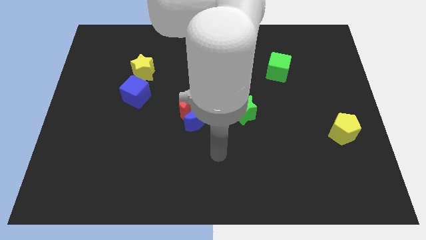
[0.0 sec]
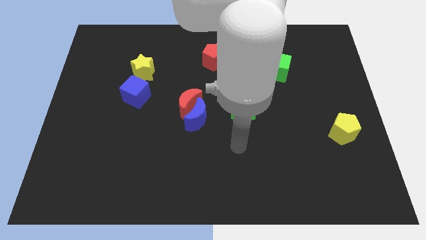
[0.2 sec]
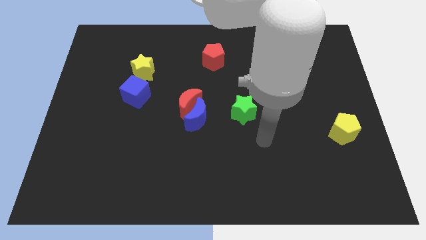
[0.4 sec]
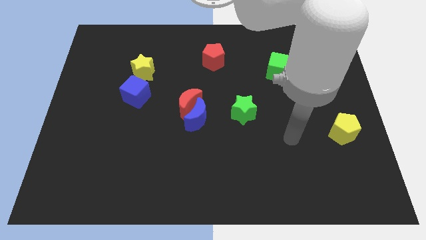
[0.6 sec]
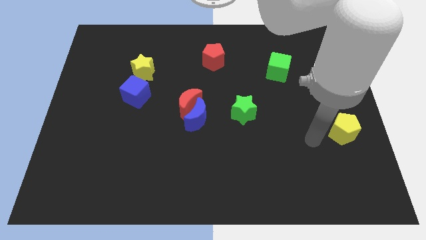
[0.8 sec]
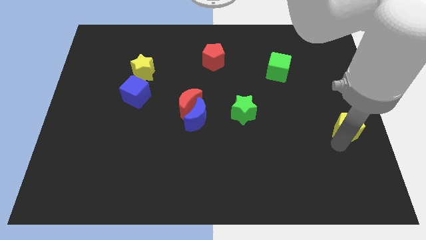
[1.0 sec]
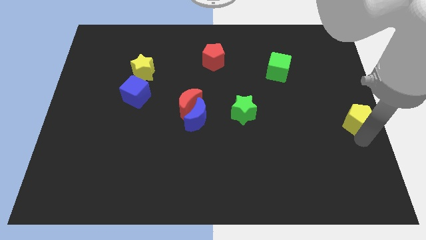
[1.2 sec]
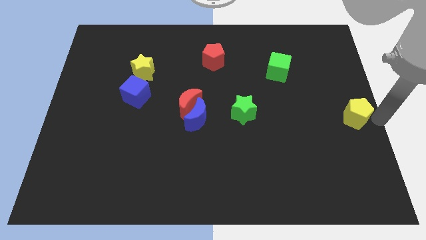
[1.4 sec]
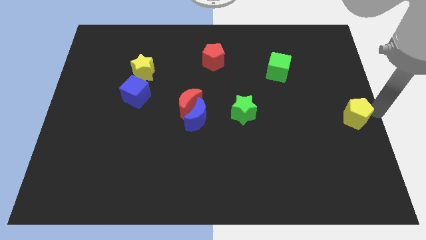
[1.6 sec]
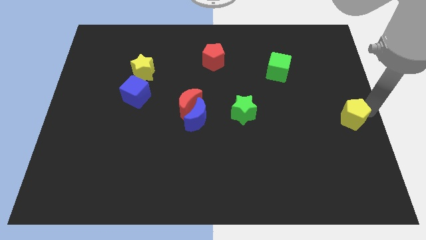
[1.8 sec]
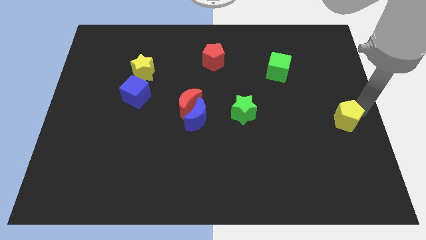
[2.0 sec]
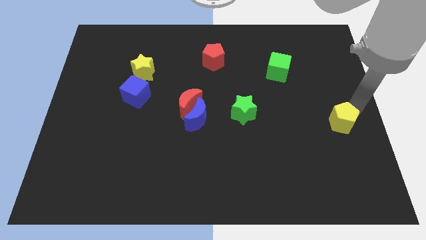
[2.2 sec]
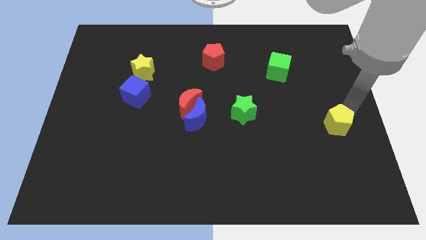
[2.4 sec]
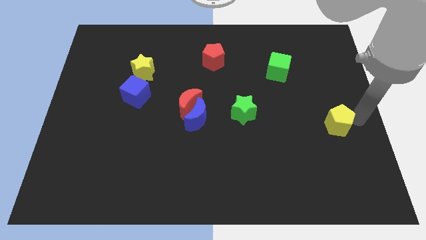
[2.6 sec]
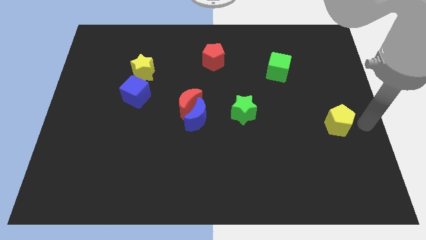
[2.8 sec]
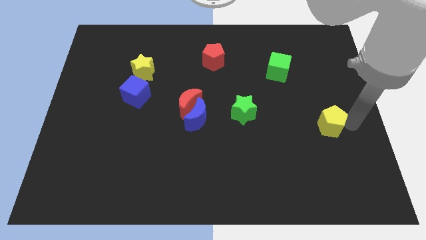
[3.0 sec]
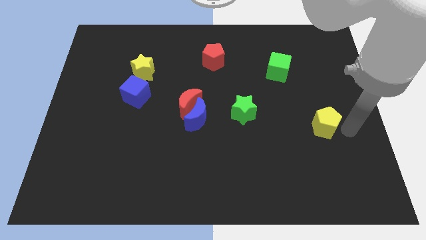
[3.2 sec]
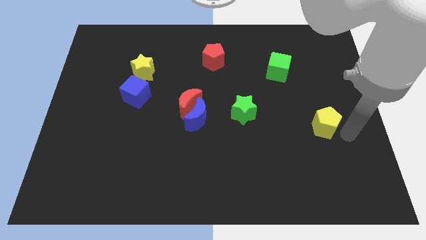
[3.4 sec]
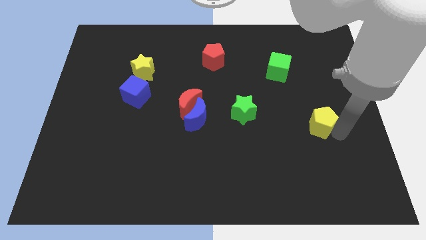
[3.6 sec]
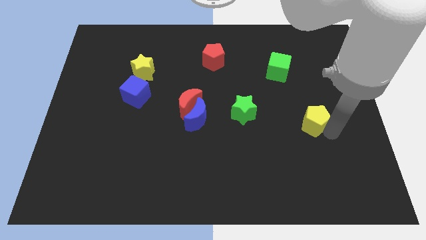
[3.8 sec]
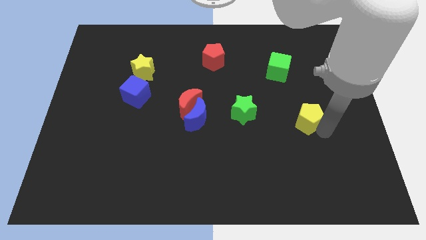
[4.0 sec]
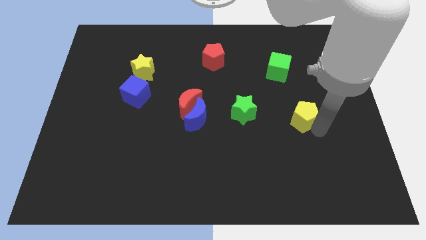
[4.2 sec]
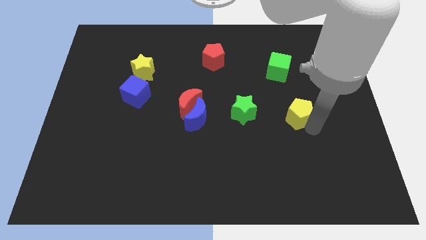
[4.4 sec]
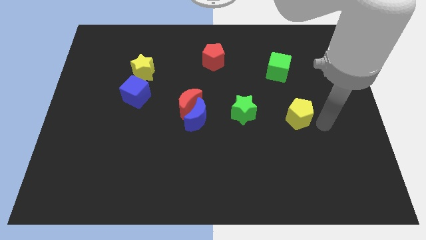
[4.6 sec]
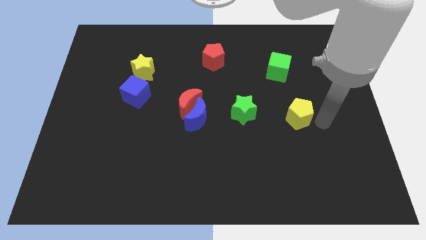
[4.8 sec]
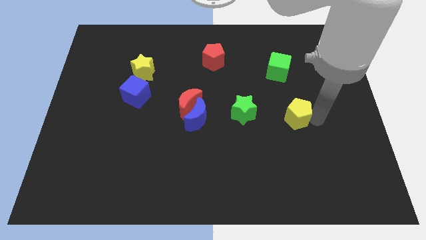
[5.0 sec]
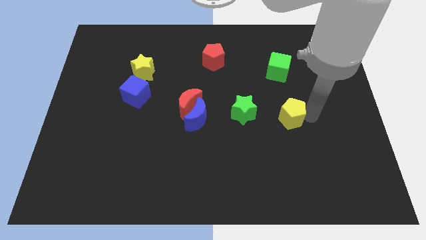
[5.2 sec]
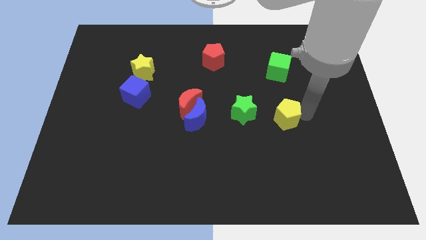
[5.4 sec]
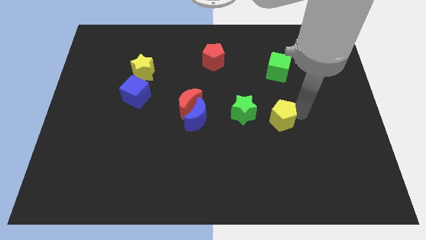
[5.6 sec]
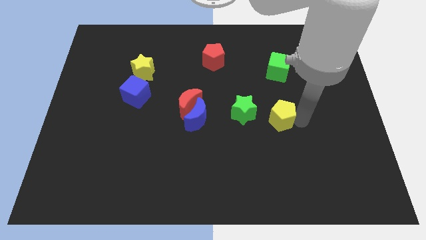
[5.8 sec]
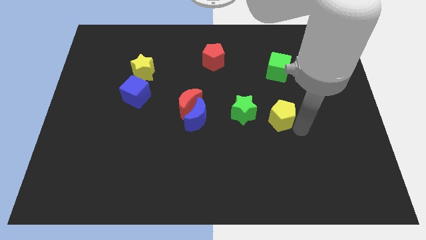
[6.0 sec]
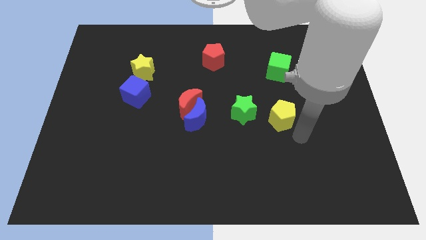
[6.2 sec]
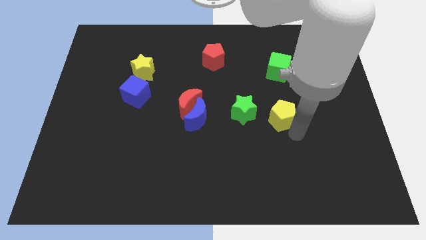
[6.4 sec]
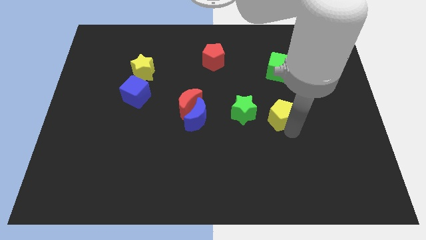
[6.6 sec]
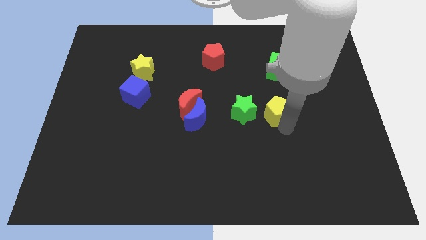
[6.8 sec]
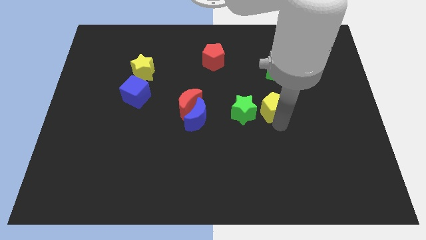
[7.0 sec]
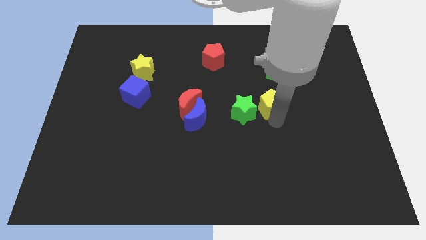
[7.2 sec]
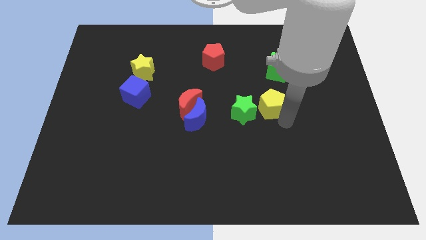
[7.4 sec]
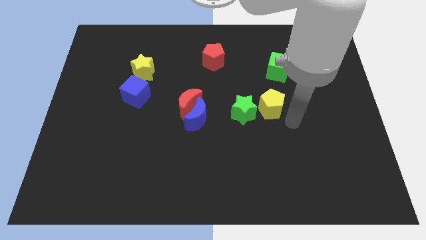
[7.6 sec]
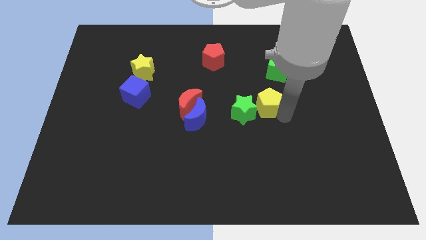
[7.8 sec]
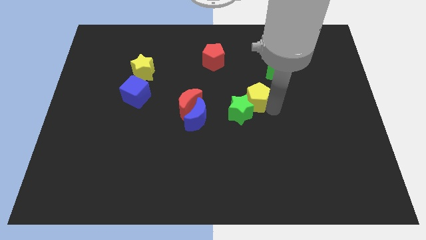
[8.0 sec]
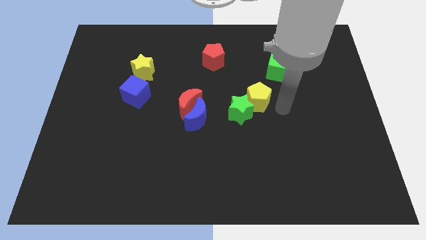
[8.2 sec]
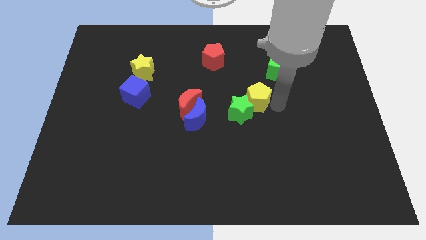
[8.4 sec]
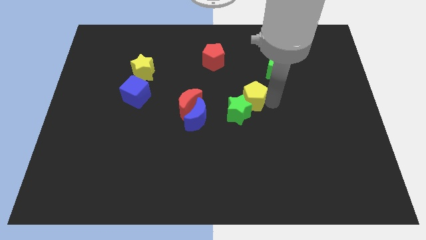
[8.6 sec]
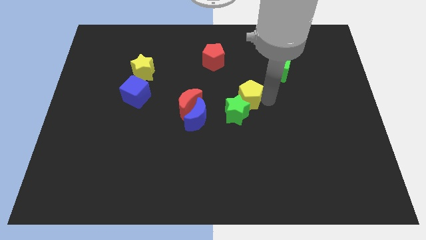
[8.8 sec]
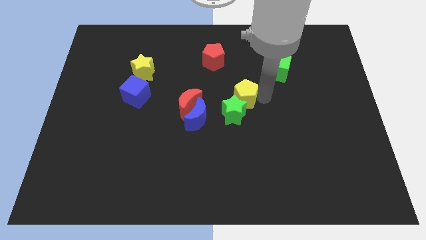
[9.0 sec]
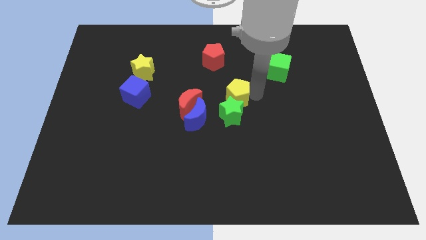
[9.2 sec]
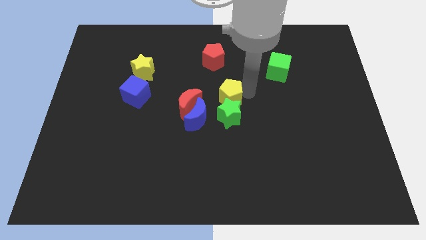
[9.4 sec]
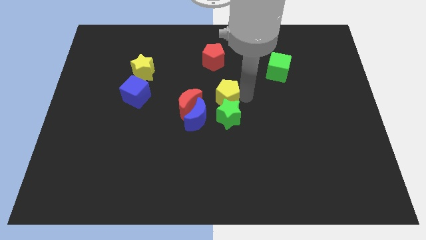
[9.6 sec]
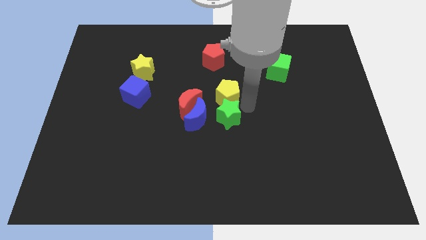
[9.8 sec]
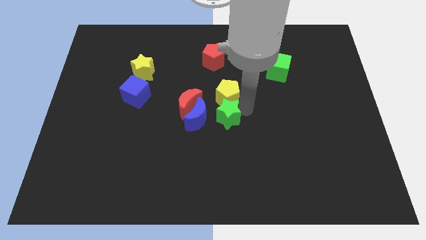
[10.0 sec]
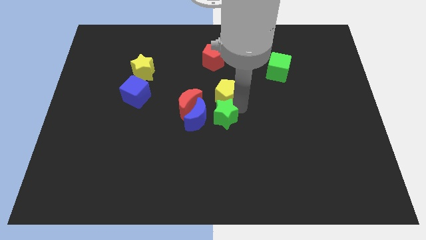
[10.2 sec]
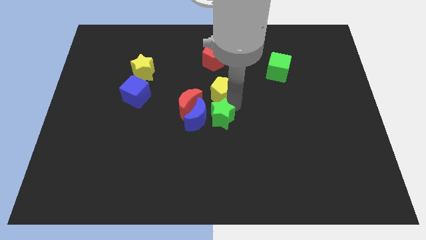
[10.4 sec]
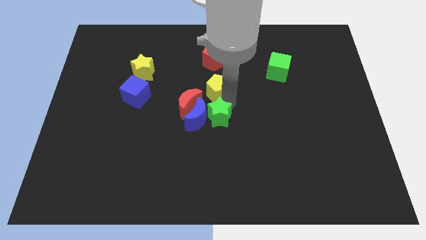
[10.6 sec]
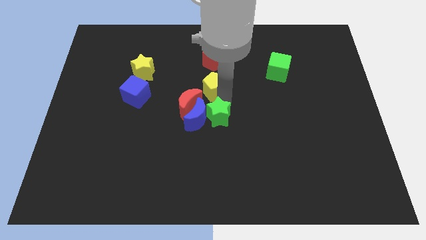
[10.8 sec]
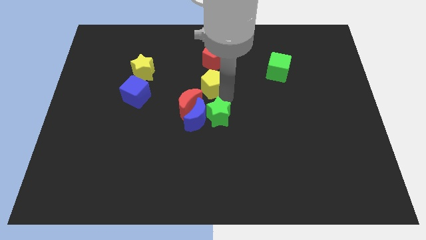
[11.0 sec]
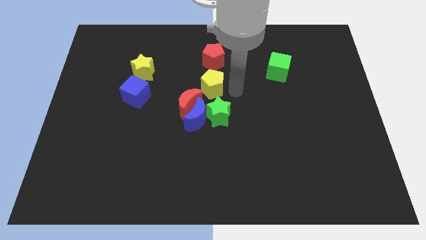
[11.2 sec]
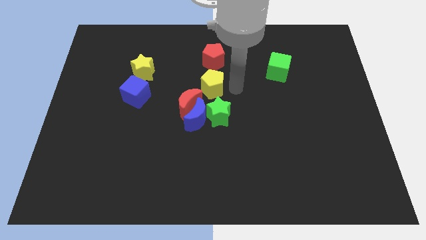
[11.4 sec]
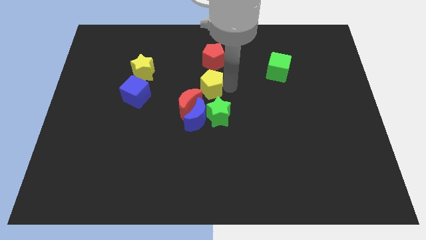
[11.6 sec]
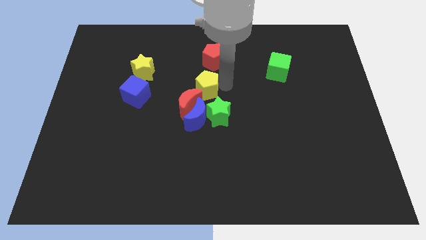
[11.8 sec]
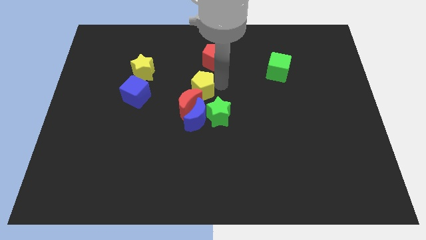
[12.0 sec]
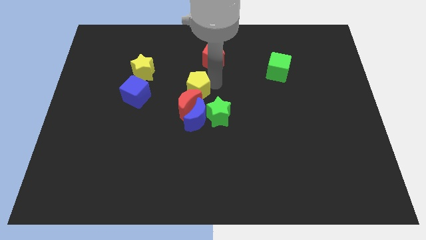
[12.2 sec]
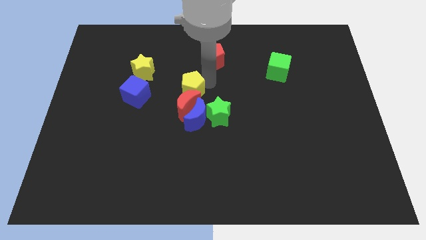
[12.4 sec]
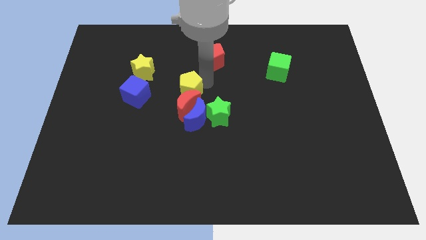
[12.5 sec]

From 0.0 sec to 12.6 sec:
slide the yellow pentagon to the top left of the blue moon

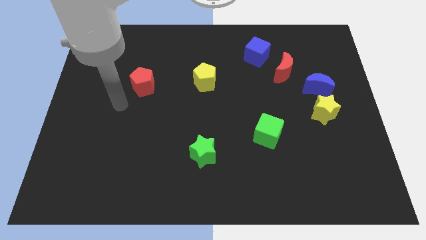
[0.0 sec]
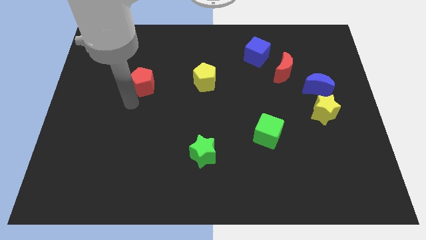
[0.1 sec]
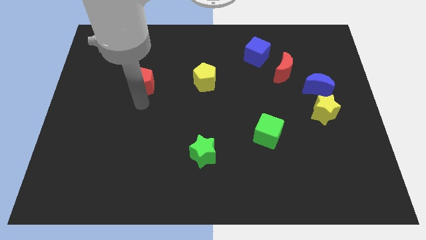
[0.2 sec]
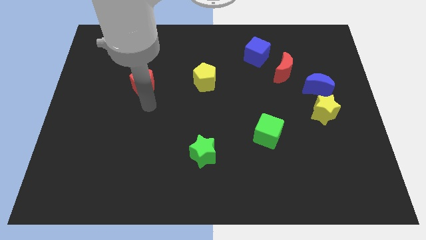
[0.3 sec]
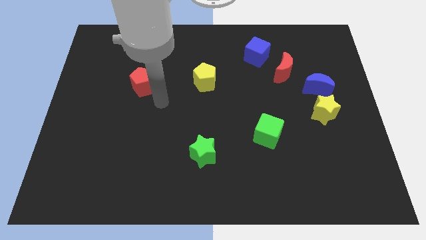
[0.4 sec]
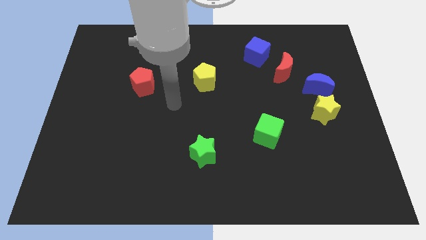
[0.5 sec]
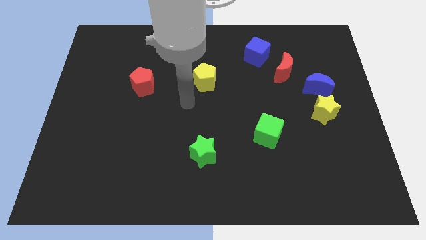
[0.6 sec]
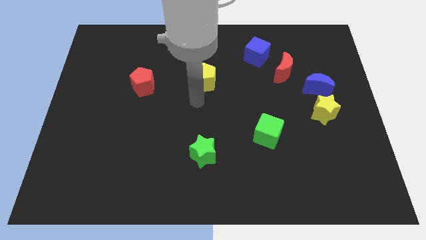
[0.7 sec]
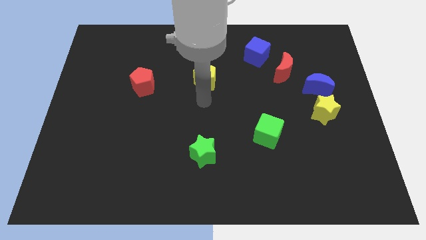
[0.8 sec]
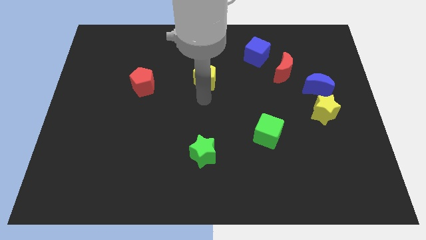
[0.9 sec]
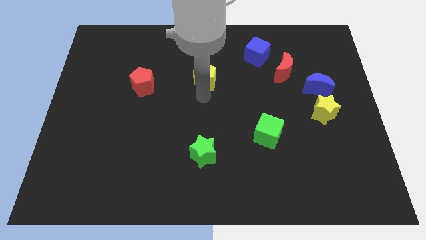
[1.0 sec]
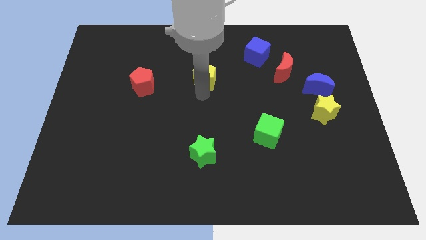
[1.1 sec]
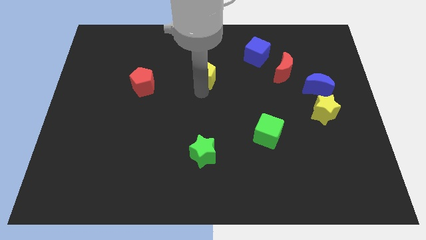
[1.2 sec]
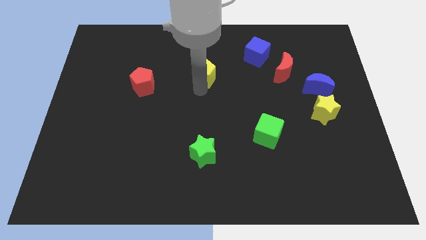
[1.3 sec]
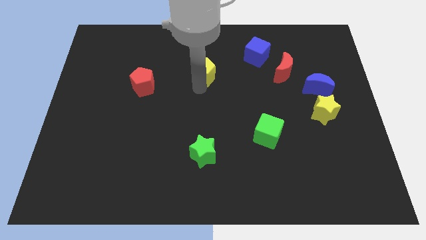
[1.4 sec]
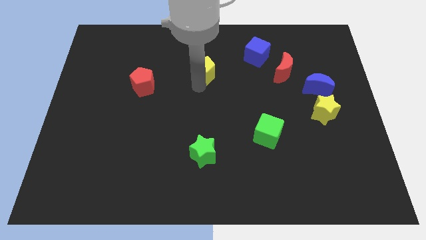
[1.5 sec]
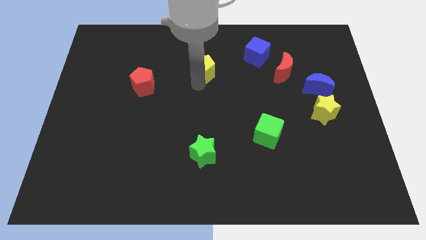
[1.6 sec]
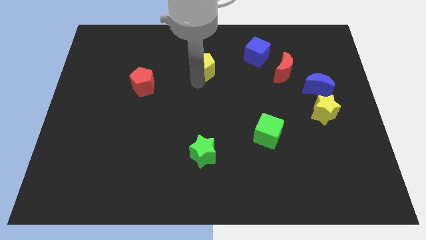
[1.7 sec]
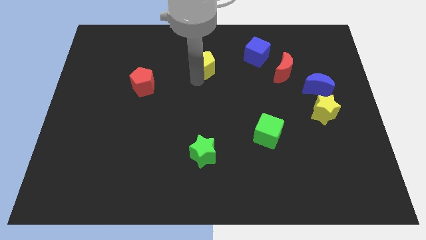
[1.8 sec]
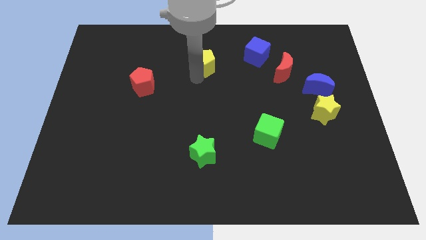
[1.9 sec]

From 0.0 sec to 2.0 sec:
put the yellow pentagon just left of the blue cube

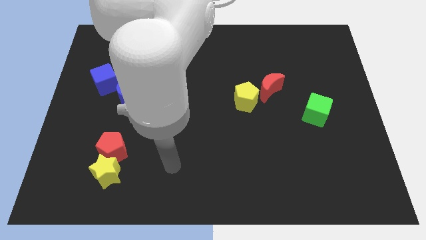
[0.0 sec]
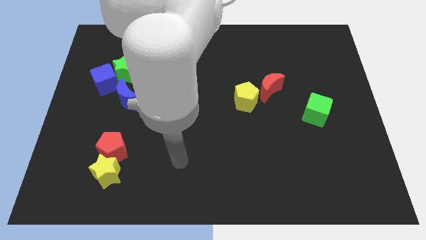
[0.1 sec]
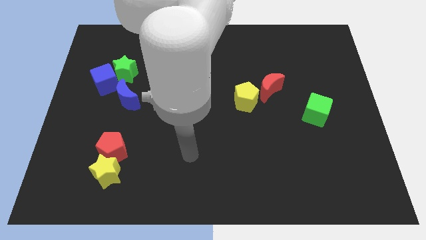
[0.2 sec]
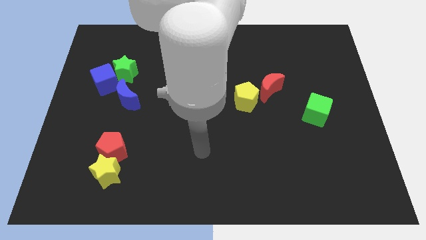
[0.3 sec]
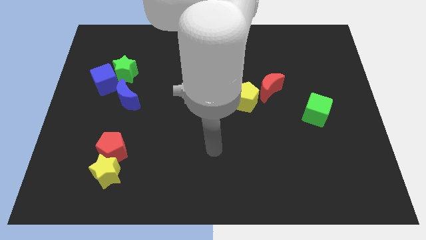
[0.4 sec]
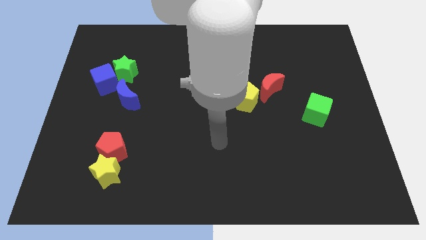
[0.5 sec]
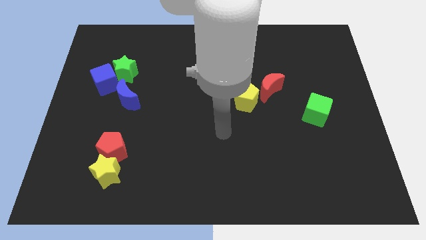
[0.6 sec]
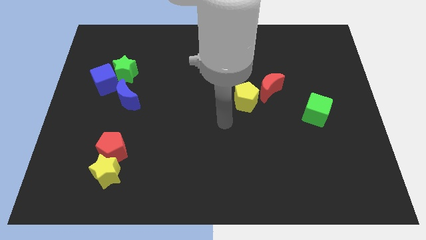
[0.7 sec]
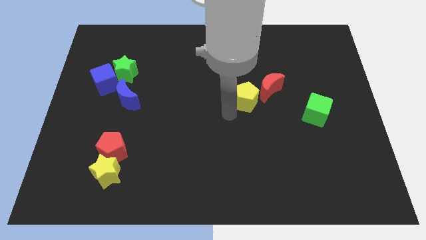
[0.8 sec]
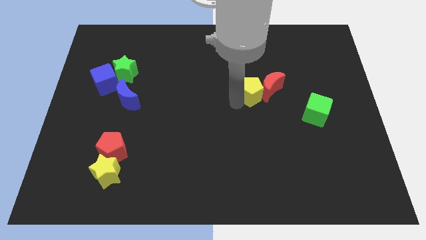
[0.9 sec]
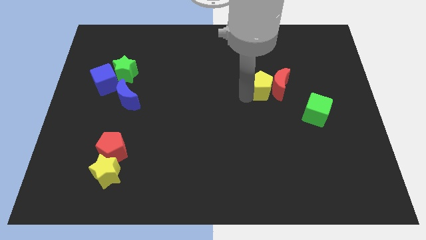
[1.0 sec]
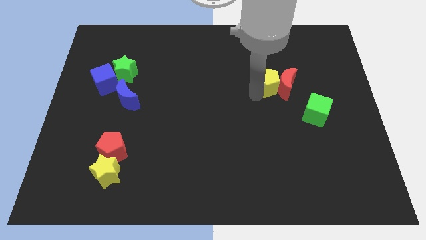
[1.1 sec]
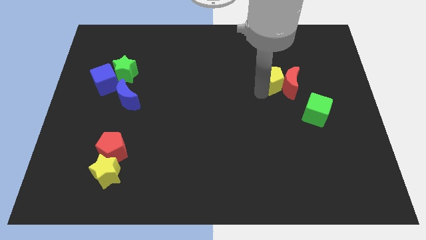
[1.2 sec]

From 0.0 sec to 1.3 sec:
slide the red moon to the top of the green cube
